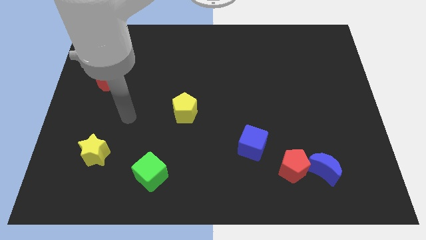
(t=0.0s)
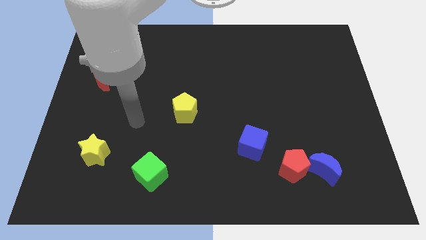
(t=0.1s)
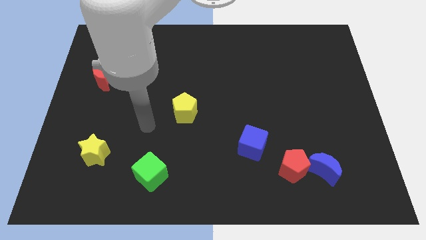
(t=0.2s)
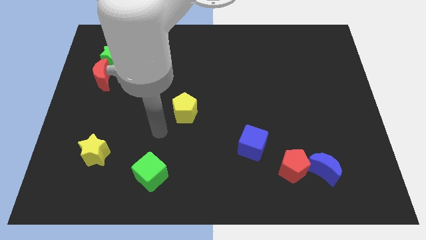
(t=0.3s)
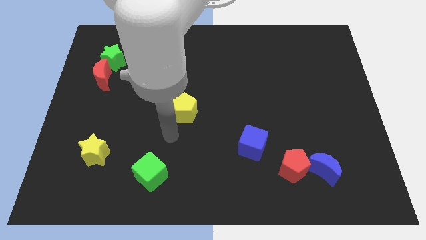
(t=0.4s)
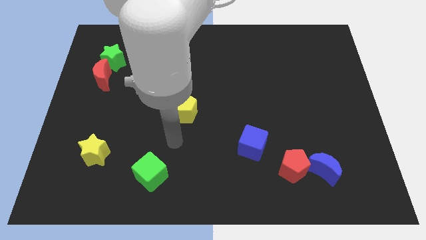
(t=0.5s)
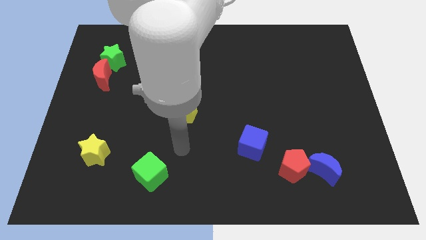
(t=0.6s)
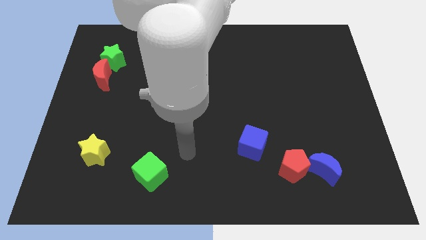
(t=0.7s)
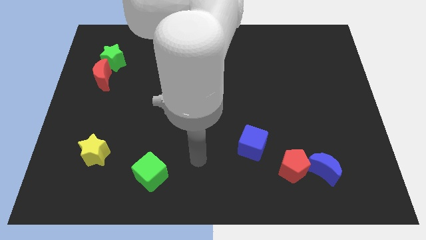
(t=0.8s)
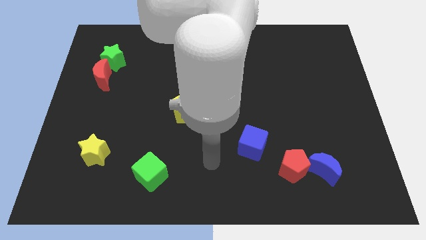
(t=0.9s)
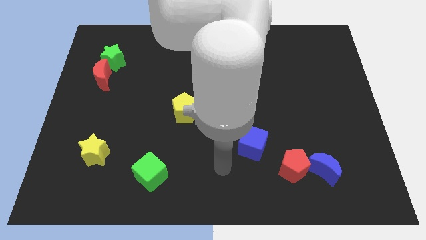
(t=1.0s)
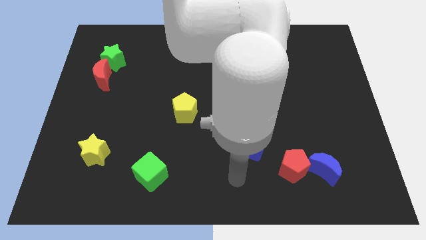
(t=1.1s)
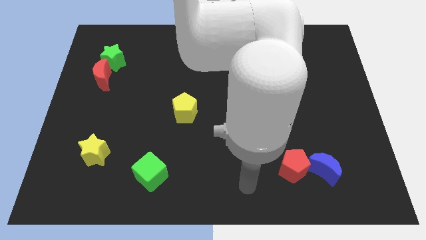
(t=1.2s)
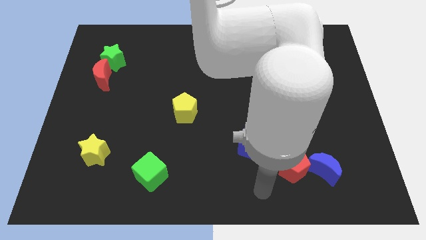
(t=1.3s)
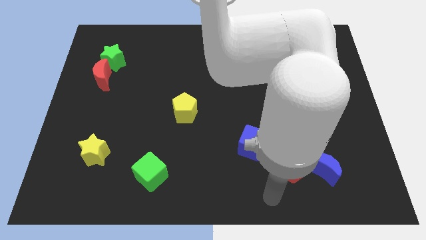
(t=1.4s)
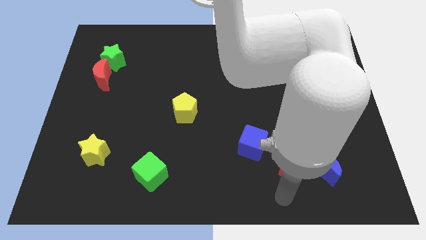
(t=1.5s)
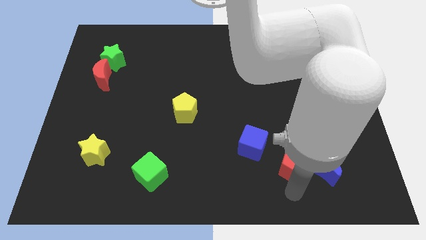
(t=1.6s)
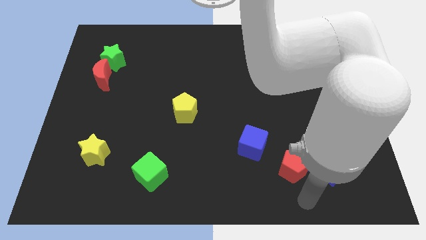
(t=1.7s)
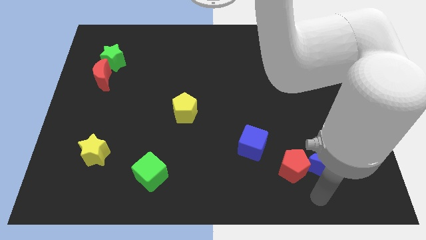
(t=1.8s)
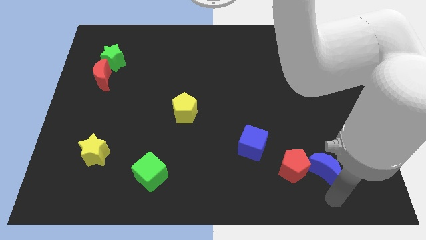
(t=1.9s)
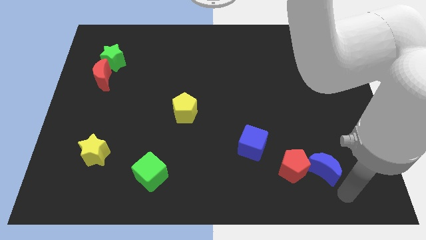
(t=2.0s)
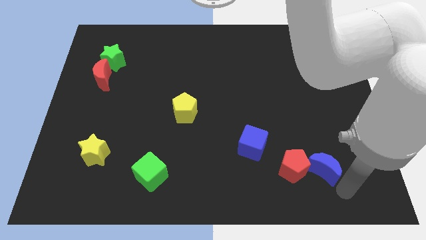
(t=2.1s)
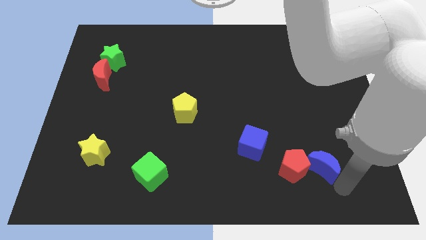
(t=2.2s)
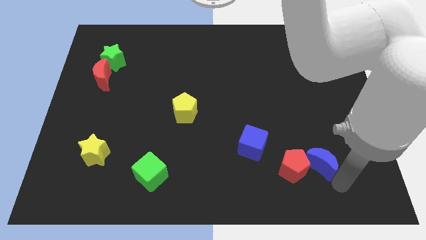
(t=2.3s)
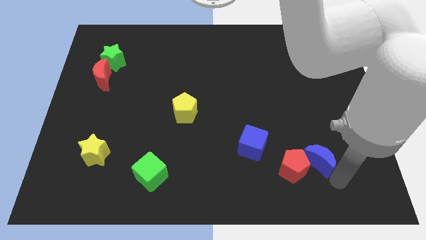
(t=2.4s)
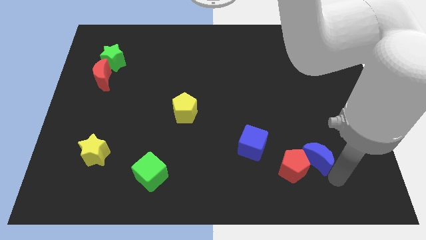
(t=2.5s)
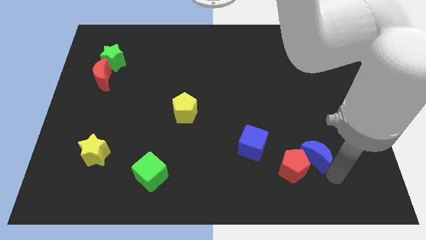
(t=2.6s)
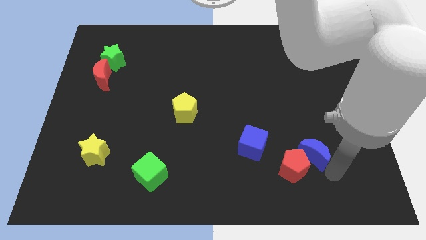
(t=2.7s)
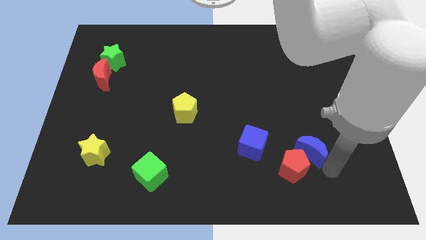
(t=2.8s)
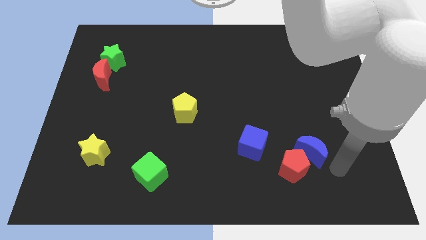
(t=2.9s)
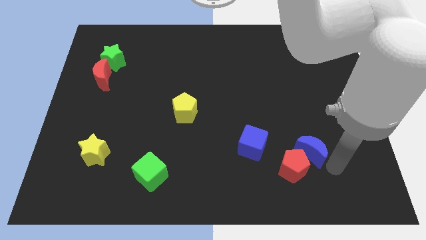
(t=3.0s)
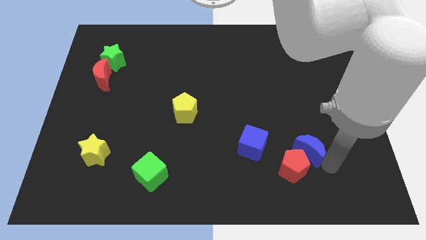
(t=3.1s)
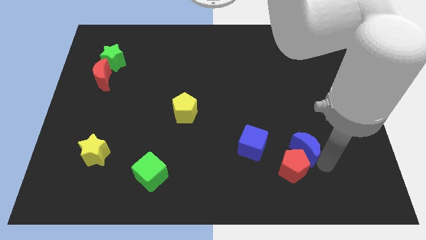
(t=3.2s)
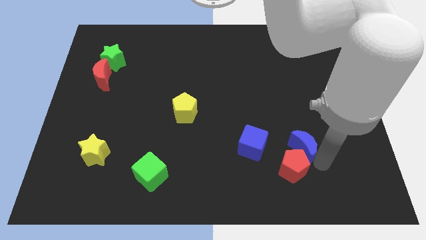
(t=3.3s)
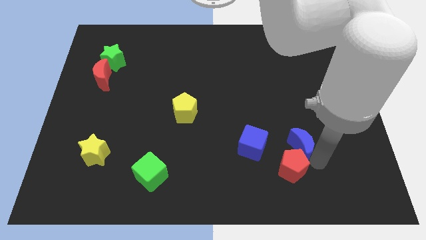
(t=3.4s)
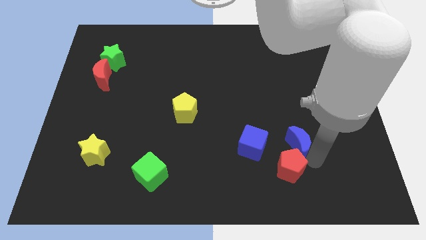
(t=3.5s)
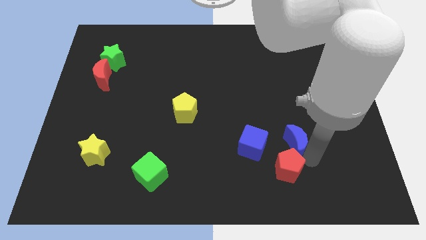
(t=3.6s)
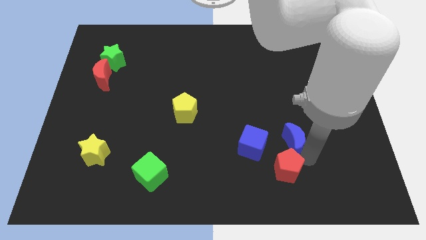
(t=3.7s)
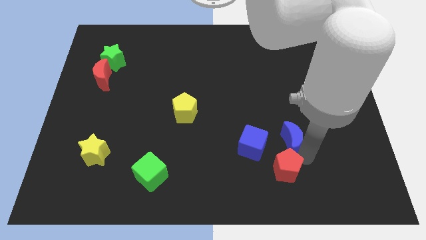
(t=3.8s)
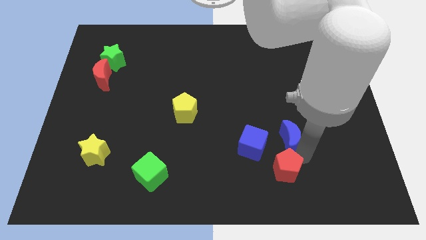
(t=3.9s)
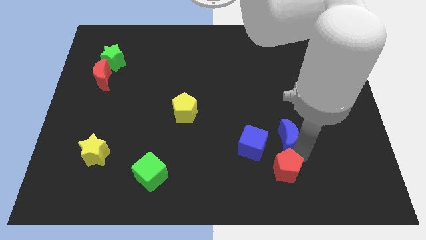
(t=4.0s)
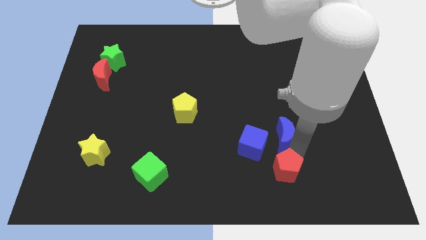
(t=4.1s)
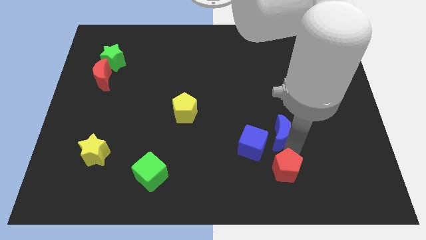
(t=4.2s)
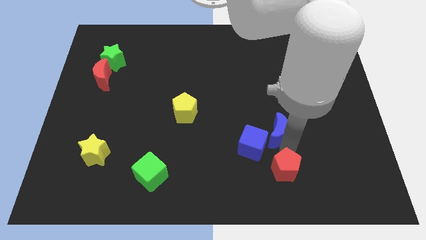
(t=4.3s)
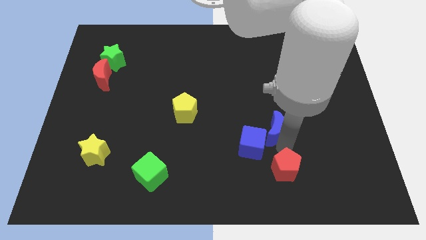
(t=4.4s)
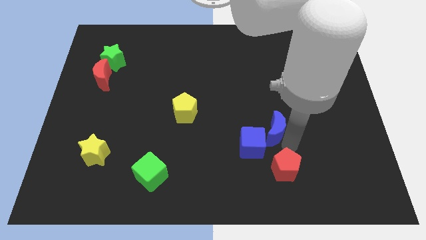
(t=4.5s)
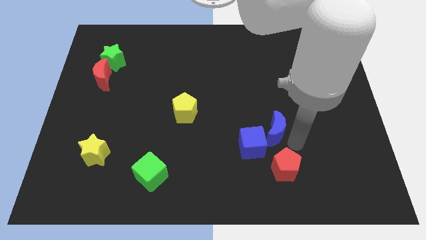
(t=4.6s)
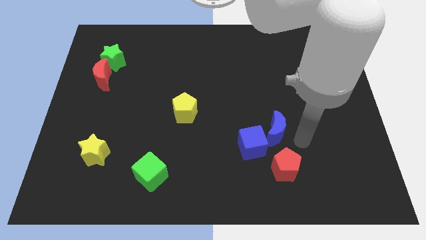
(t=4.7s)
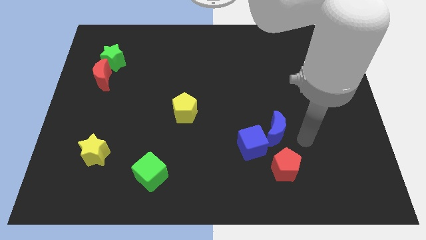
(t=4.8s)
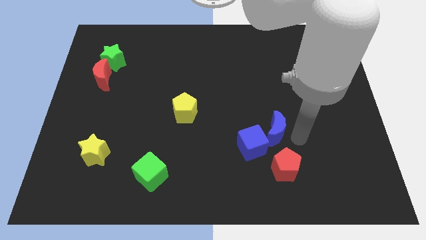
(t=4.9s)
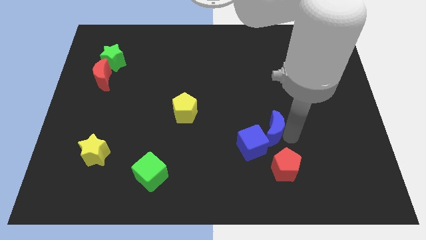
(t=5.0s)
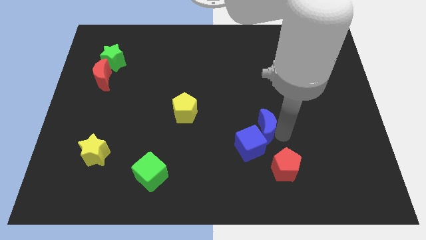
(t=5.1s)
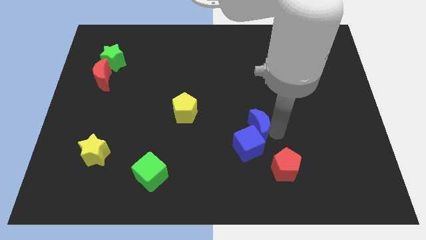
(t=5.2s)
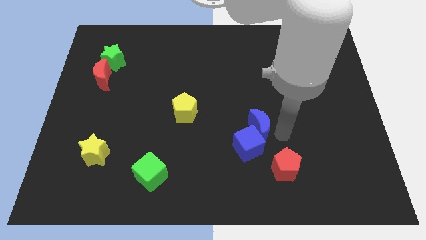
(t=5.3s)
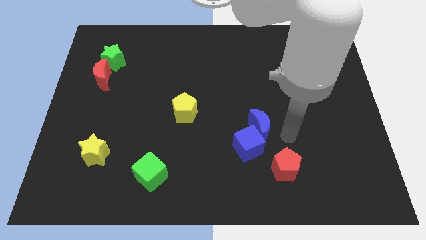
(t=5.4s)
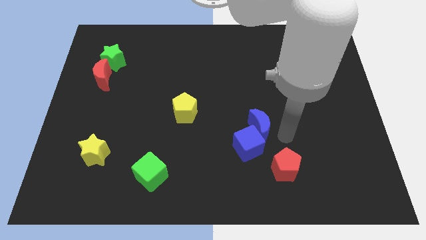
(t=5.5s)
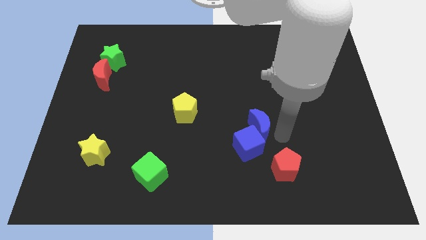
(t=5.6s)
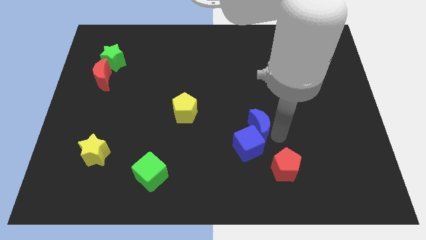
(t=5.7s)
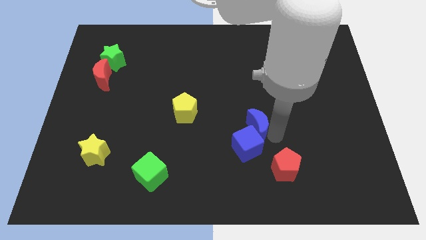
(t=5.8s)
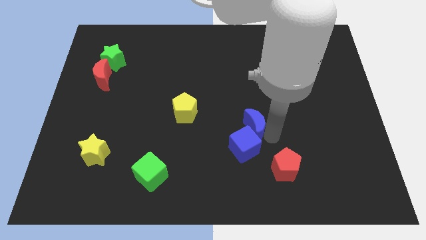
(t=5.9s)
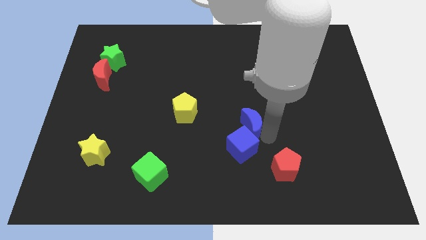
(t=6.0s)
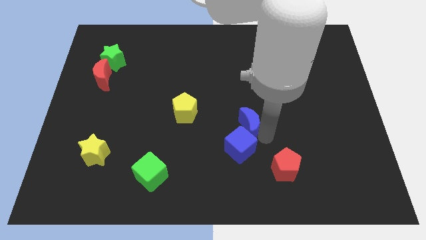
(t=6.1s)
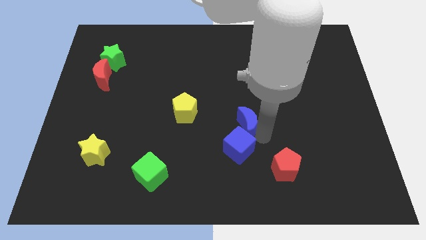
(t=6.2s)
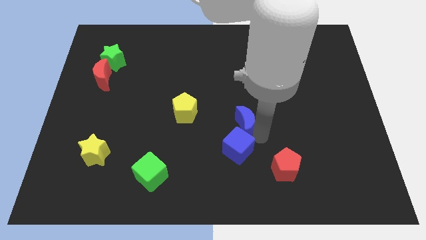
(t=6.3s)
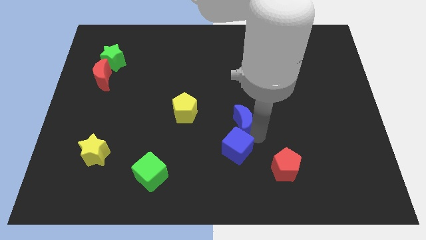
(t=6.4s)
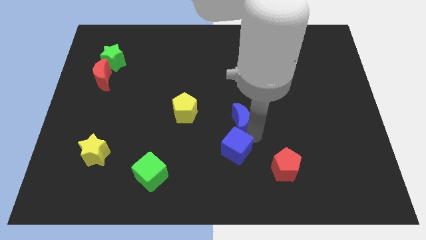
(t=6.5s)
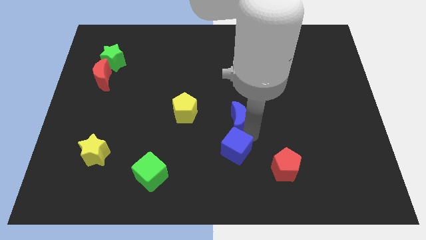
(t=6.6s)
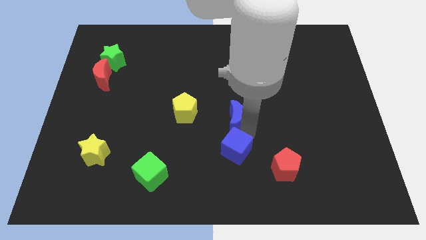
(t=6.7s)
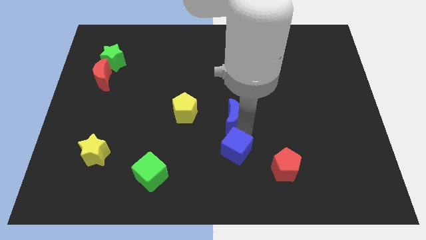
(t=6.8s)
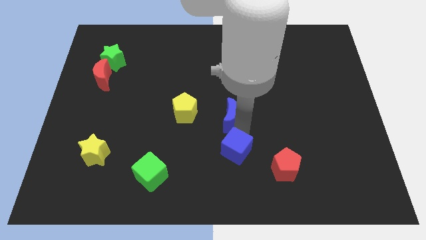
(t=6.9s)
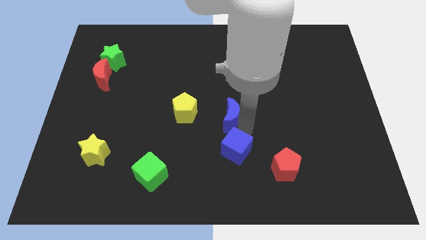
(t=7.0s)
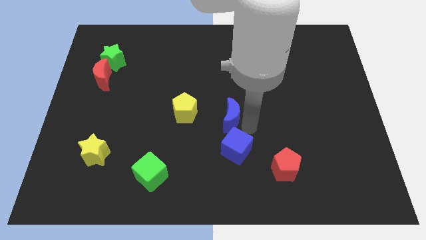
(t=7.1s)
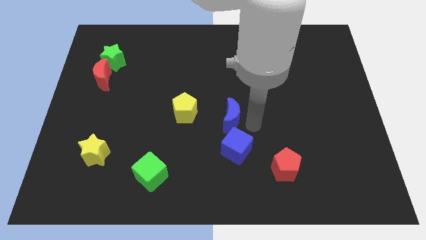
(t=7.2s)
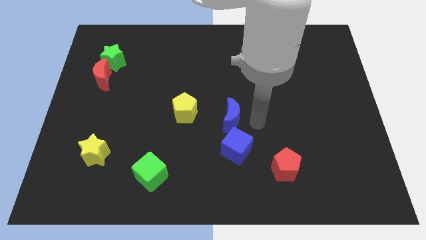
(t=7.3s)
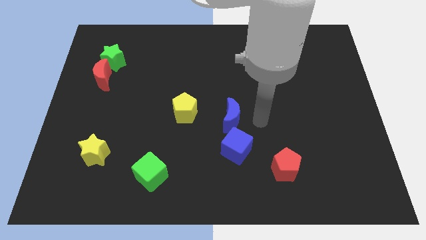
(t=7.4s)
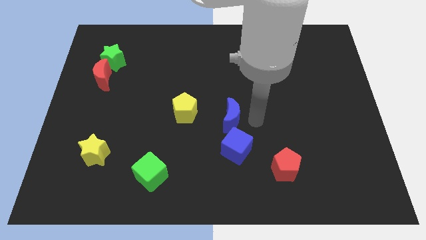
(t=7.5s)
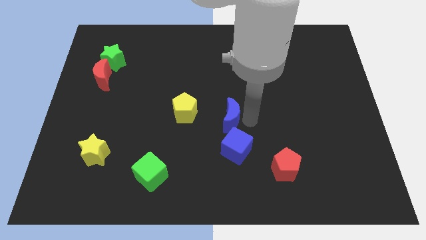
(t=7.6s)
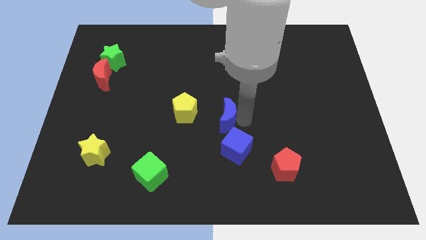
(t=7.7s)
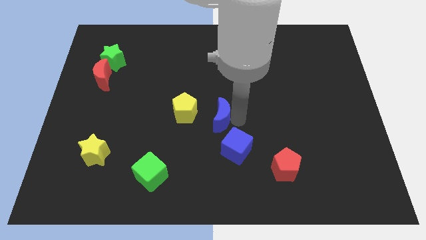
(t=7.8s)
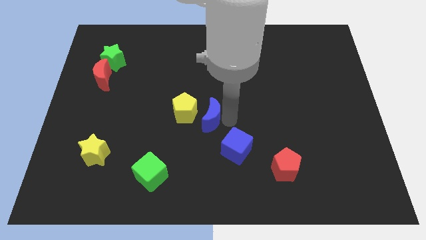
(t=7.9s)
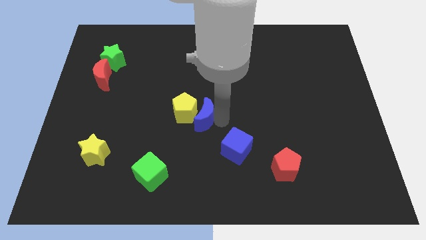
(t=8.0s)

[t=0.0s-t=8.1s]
put the blue moon close to the yellow pentagon

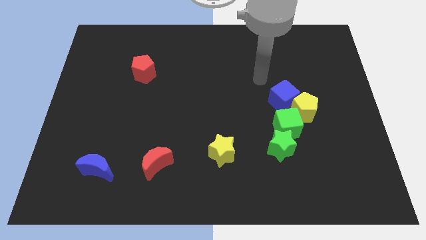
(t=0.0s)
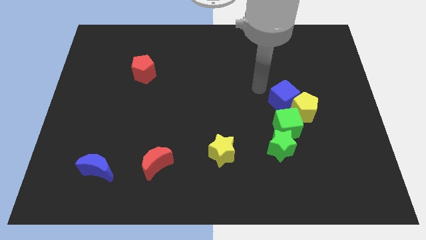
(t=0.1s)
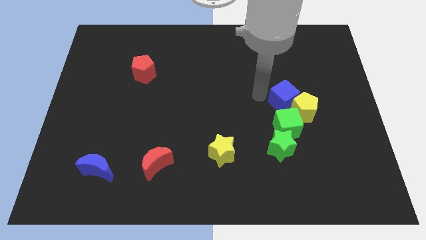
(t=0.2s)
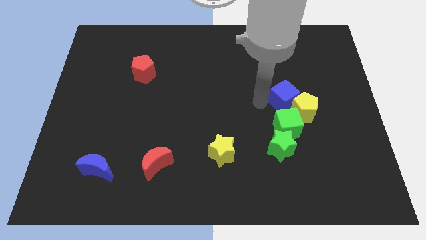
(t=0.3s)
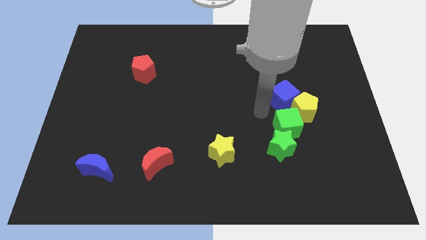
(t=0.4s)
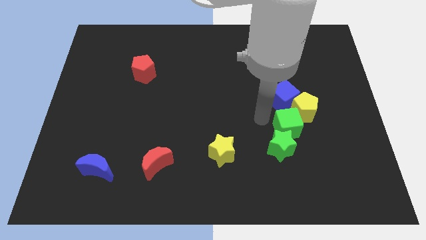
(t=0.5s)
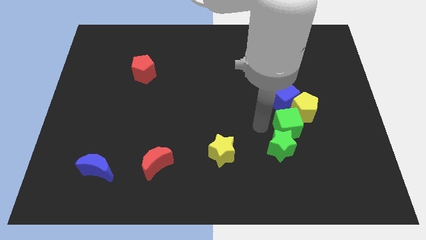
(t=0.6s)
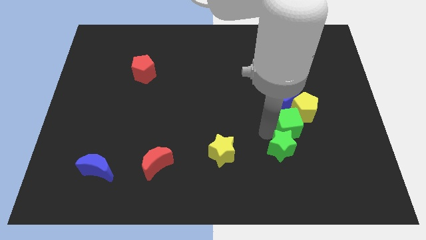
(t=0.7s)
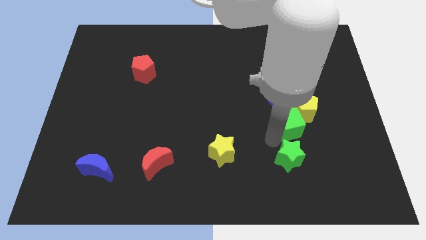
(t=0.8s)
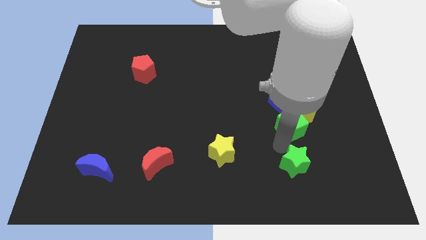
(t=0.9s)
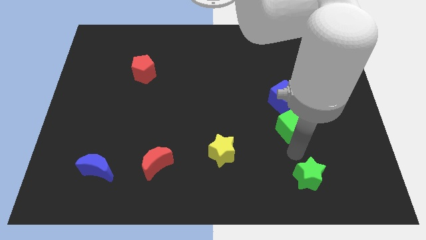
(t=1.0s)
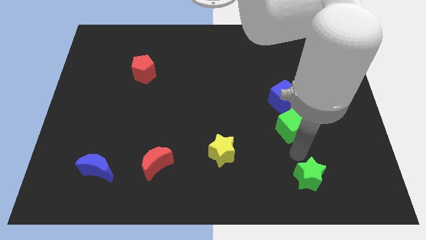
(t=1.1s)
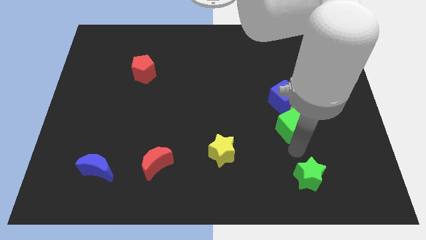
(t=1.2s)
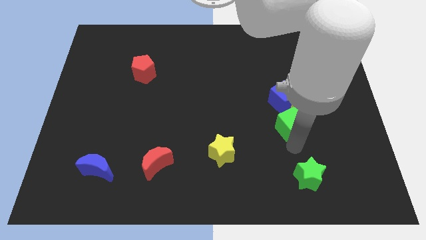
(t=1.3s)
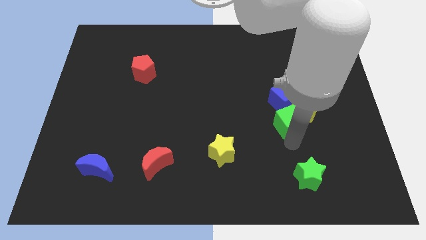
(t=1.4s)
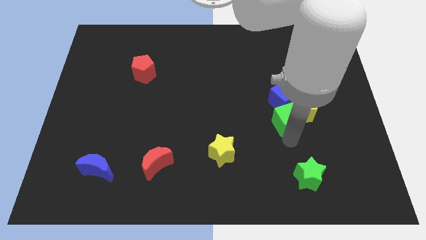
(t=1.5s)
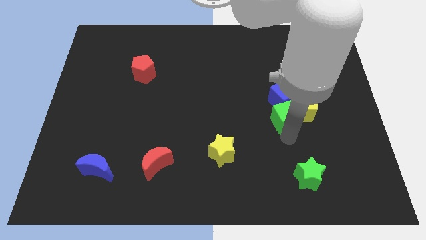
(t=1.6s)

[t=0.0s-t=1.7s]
put the green cube to the blue cube
